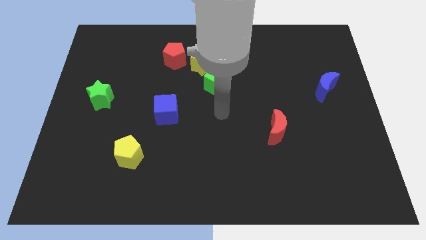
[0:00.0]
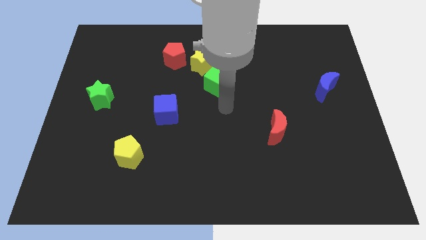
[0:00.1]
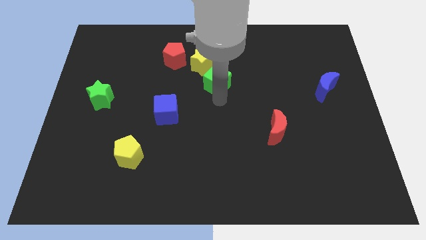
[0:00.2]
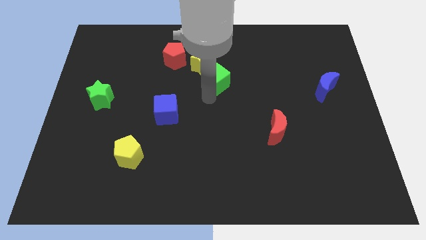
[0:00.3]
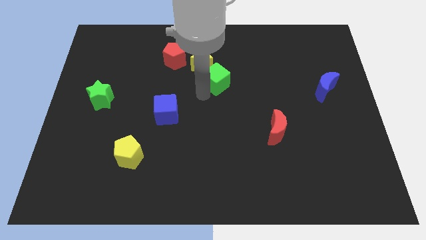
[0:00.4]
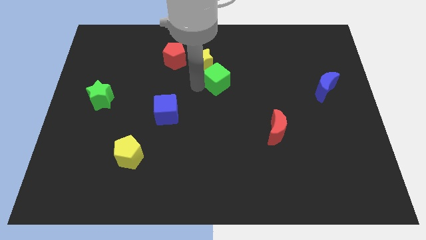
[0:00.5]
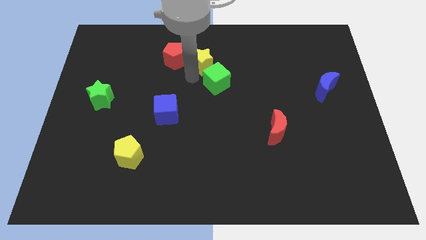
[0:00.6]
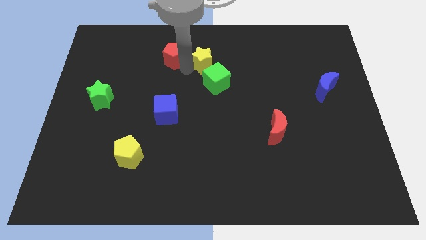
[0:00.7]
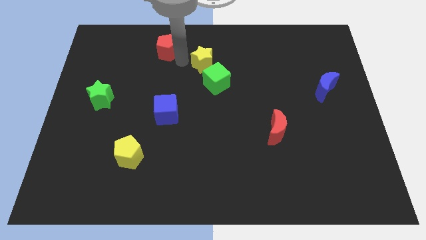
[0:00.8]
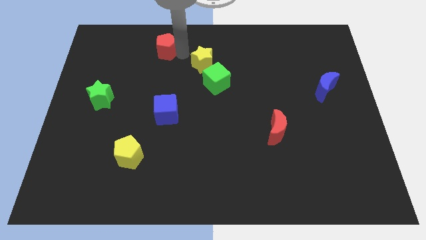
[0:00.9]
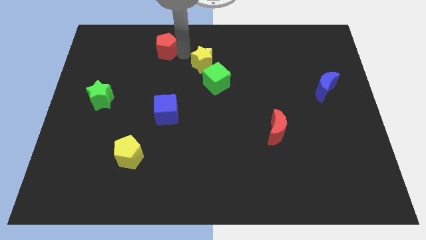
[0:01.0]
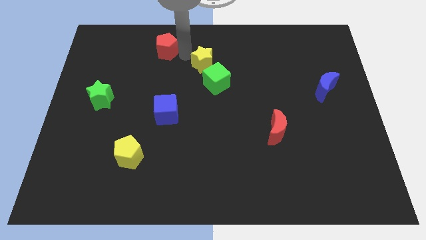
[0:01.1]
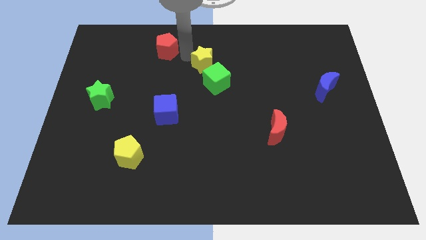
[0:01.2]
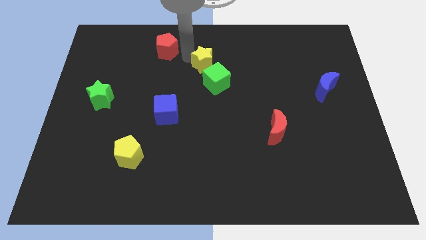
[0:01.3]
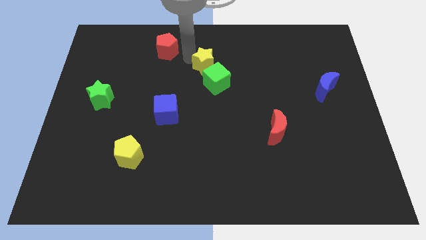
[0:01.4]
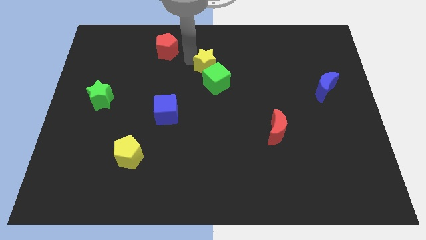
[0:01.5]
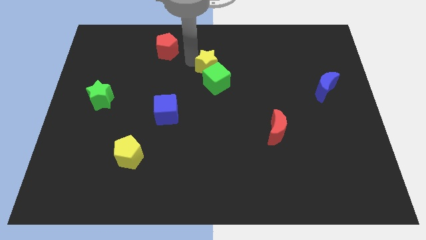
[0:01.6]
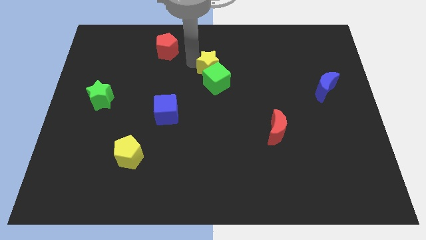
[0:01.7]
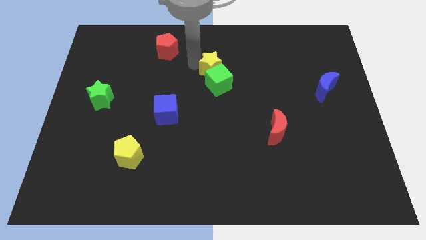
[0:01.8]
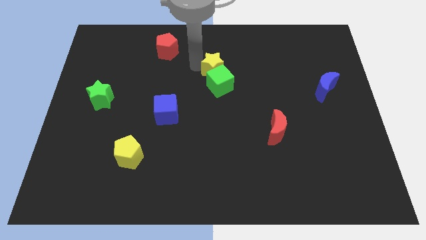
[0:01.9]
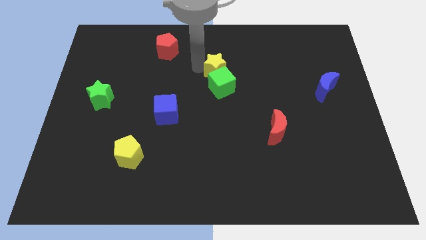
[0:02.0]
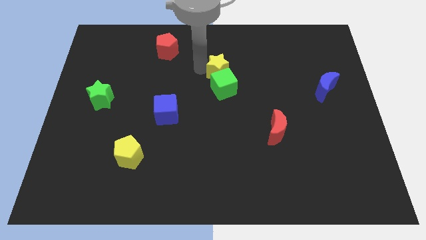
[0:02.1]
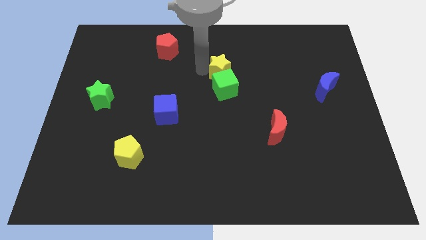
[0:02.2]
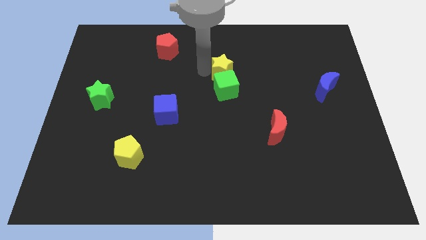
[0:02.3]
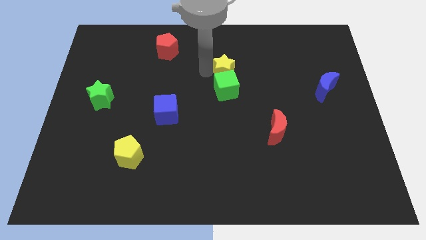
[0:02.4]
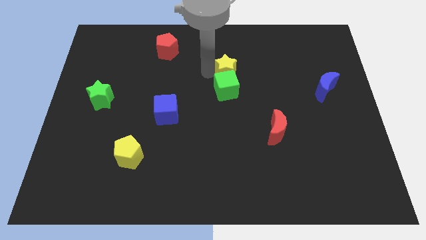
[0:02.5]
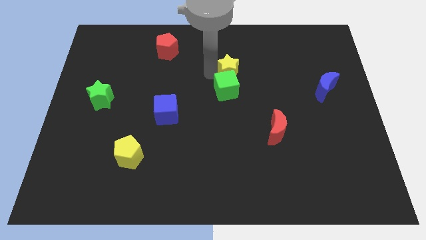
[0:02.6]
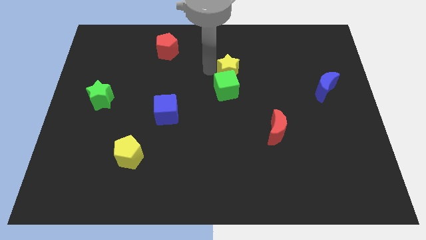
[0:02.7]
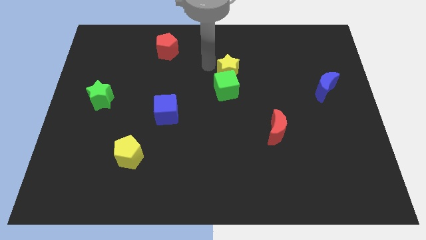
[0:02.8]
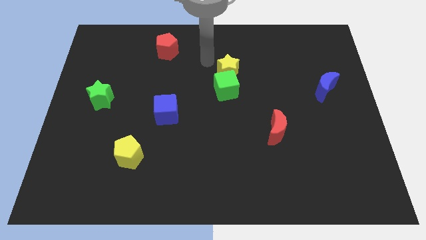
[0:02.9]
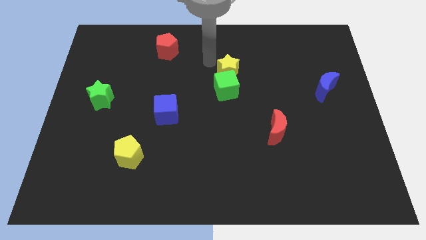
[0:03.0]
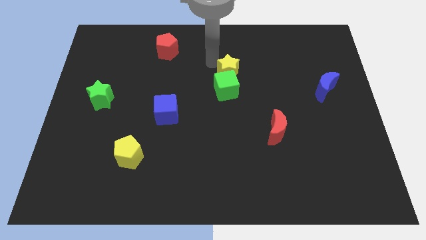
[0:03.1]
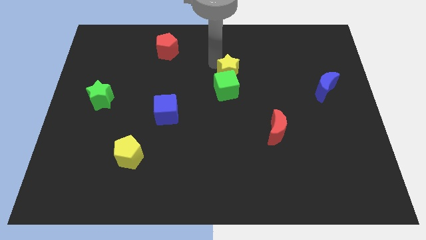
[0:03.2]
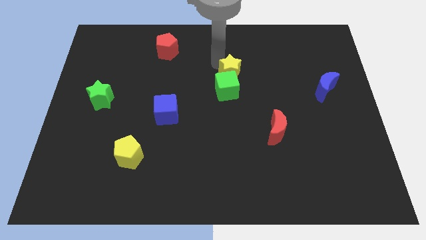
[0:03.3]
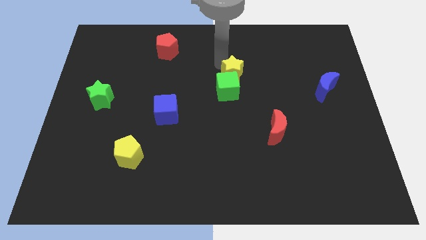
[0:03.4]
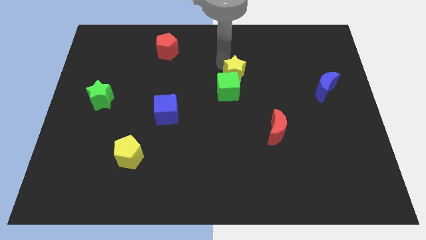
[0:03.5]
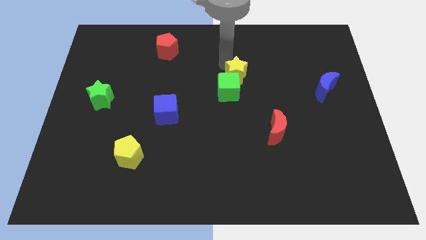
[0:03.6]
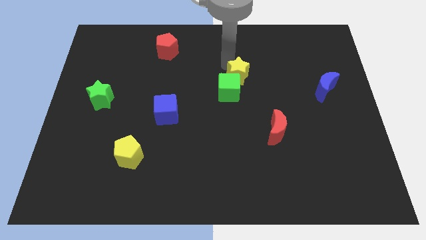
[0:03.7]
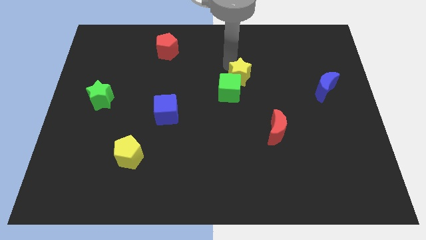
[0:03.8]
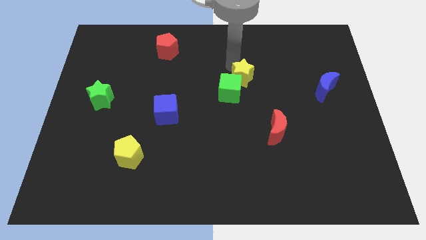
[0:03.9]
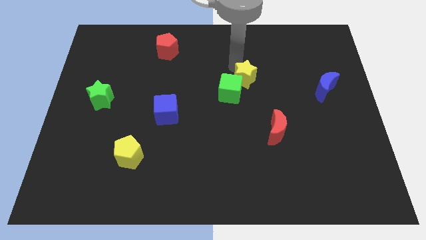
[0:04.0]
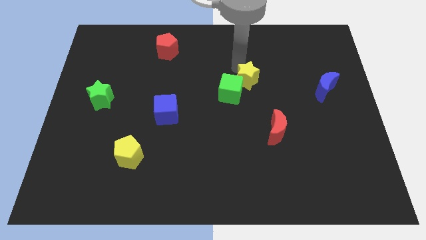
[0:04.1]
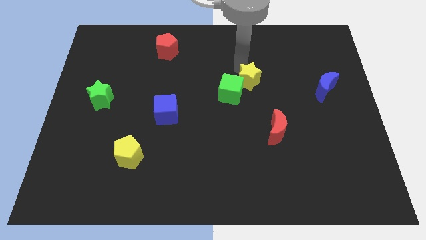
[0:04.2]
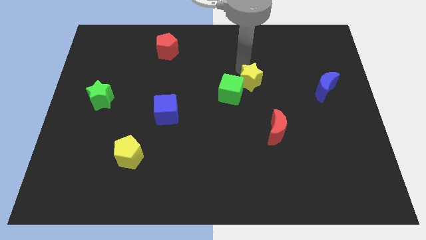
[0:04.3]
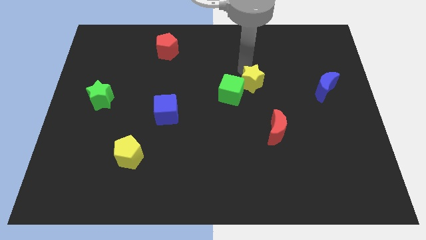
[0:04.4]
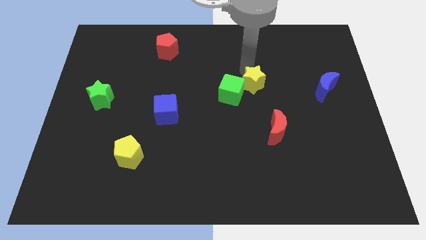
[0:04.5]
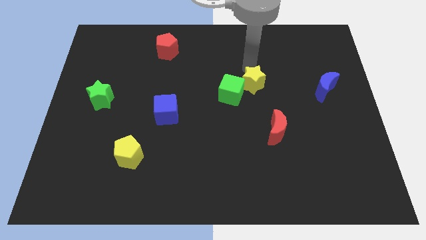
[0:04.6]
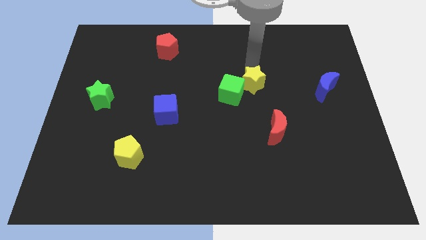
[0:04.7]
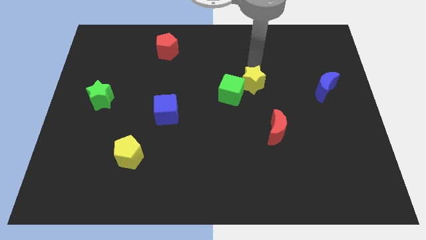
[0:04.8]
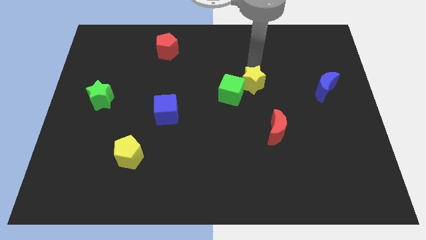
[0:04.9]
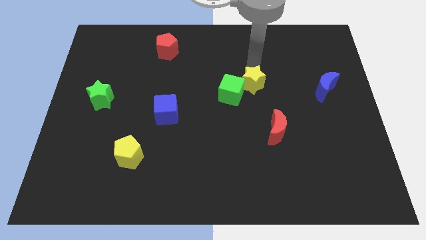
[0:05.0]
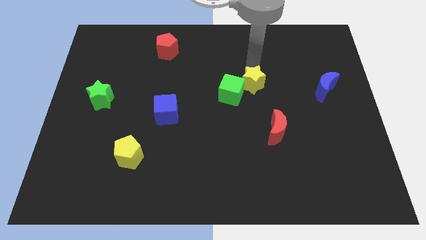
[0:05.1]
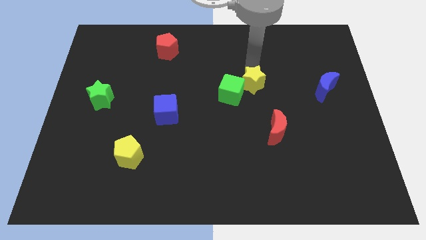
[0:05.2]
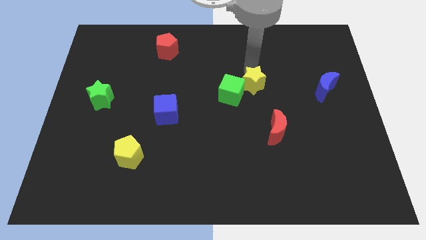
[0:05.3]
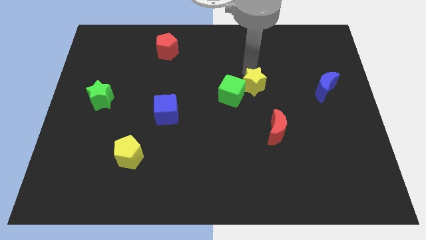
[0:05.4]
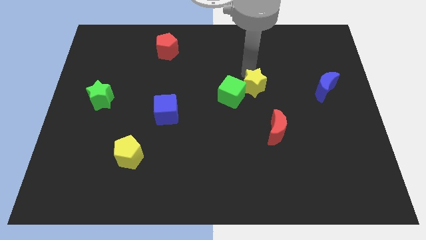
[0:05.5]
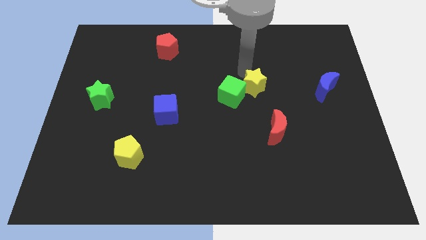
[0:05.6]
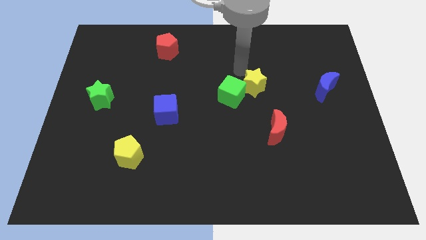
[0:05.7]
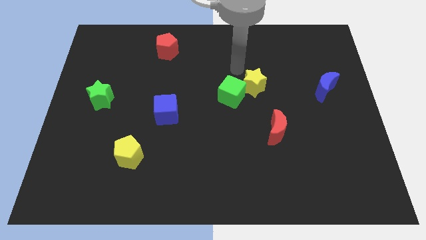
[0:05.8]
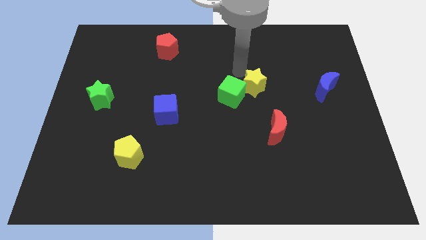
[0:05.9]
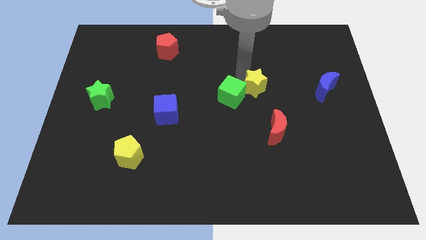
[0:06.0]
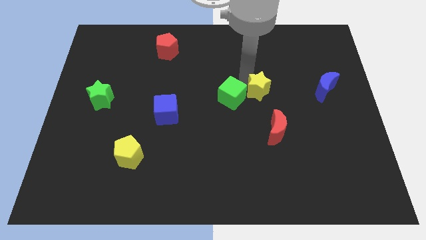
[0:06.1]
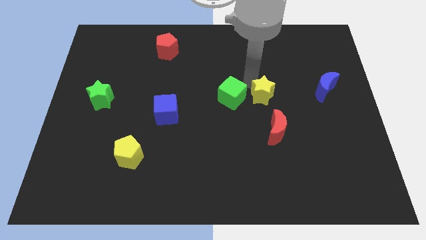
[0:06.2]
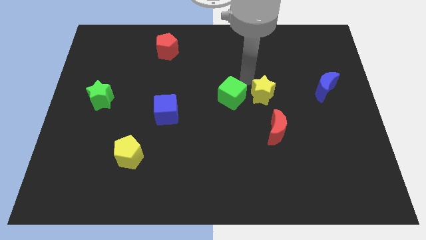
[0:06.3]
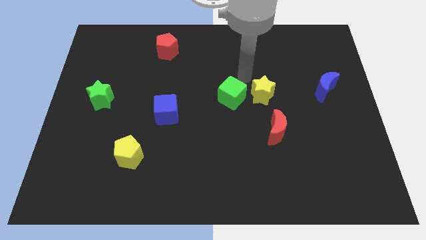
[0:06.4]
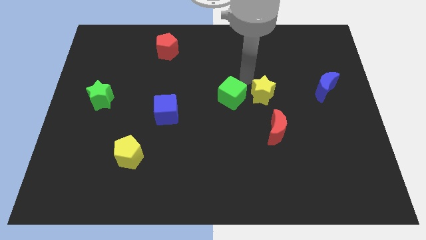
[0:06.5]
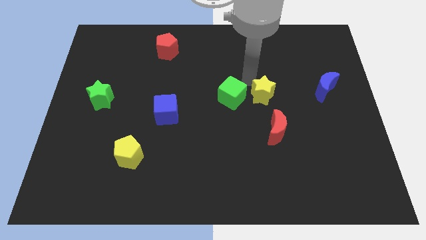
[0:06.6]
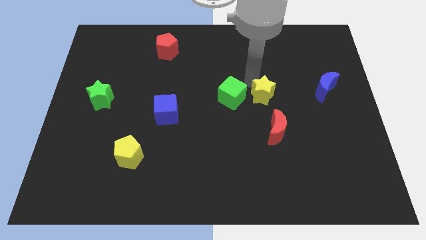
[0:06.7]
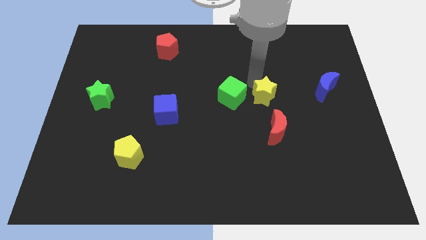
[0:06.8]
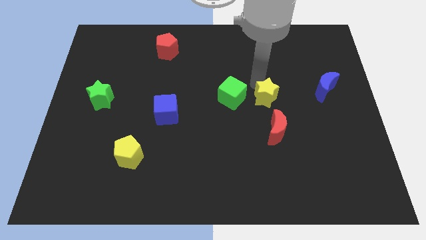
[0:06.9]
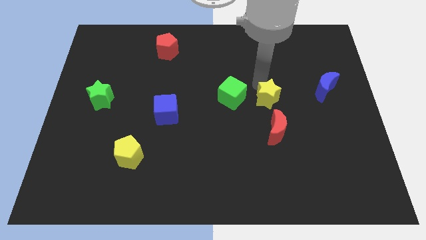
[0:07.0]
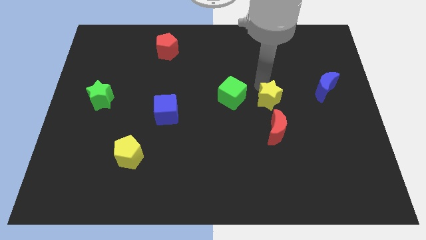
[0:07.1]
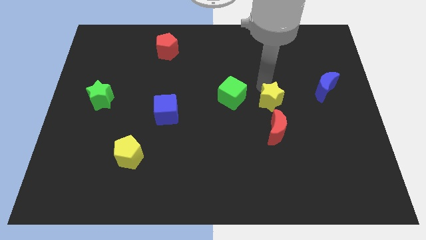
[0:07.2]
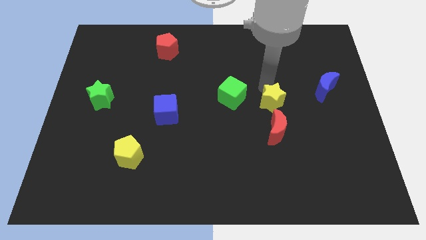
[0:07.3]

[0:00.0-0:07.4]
slide the yellow star downwards and right diagonally

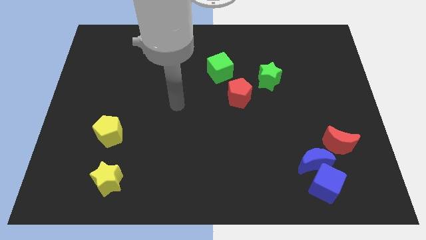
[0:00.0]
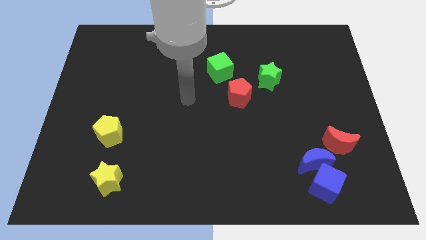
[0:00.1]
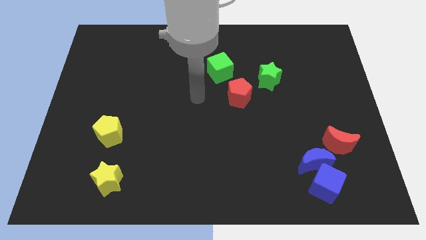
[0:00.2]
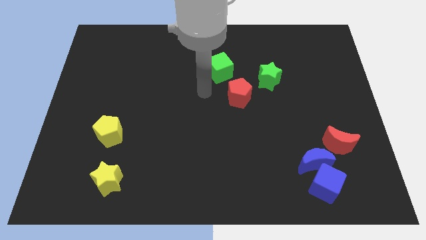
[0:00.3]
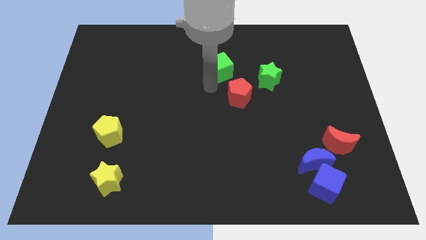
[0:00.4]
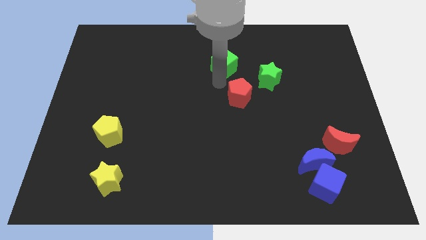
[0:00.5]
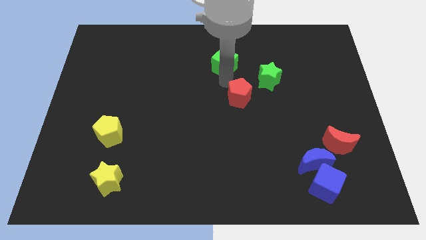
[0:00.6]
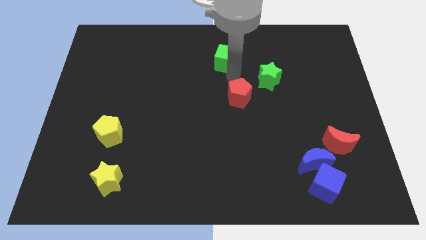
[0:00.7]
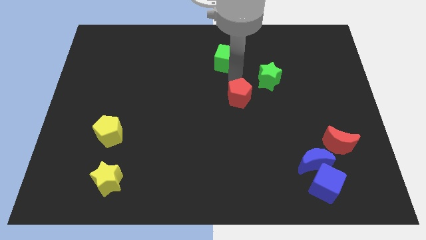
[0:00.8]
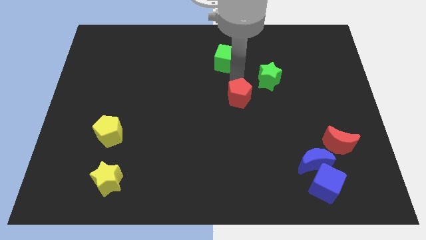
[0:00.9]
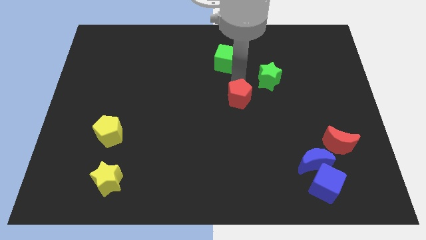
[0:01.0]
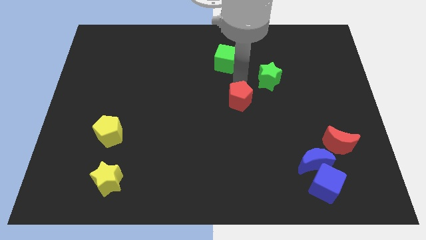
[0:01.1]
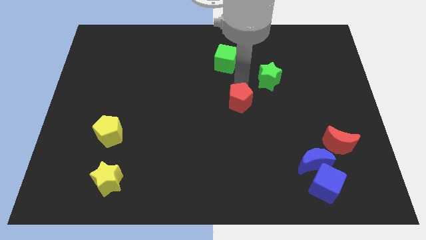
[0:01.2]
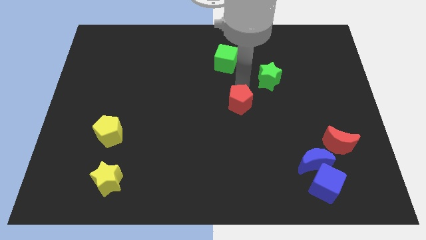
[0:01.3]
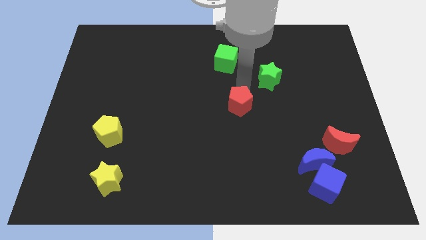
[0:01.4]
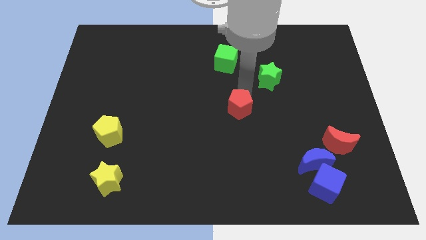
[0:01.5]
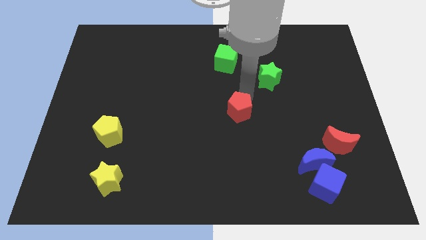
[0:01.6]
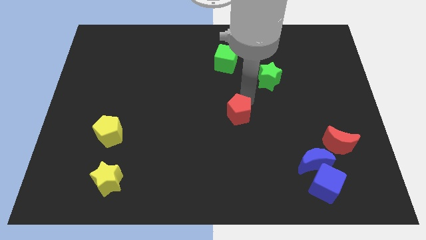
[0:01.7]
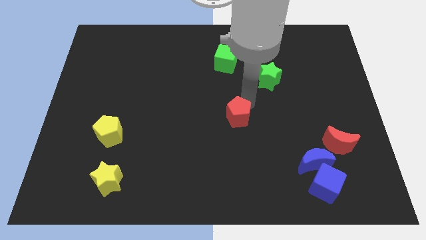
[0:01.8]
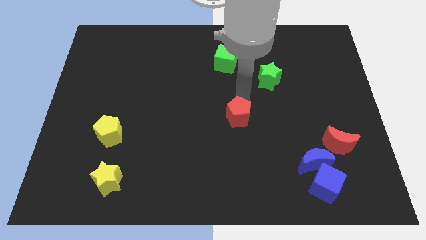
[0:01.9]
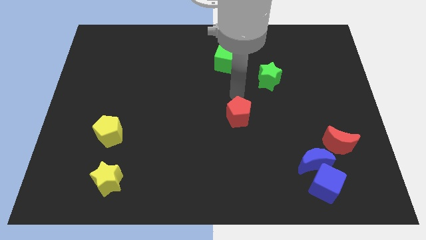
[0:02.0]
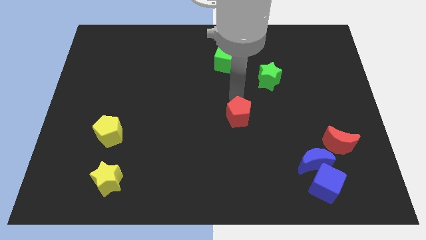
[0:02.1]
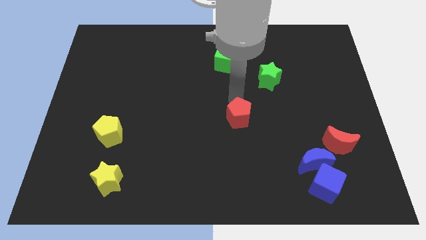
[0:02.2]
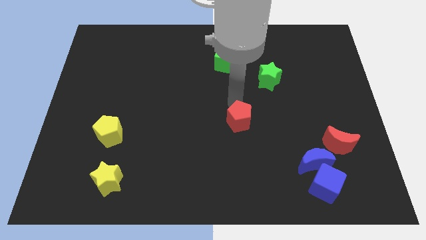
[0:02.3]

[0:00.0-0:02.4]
slide the red pentagon somewhat downwards
